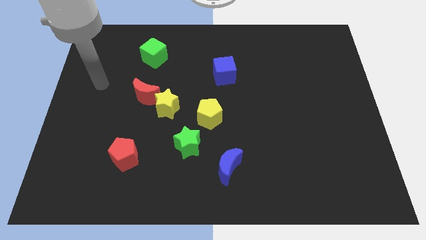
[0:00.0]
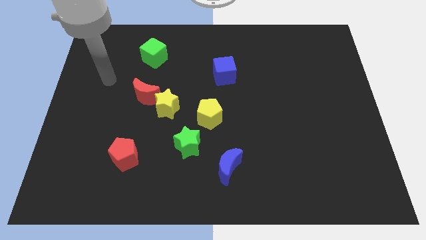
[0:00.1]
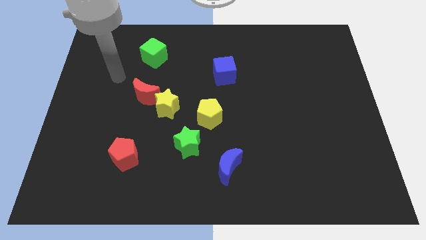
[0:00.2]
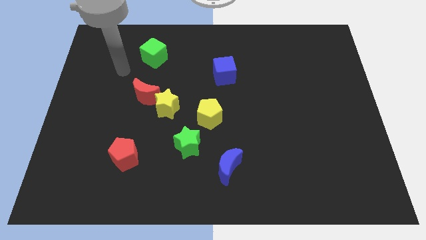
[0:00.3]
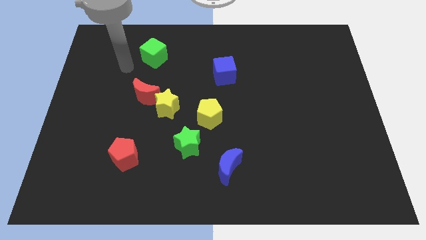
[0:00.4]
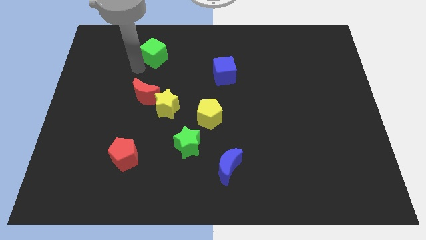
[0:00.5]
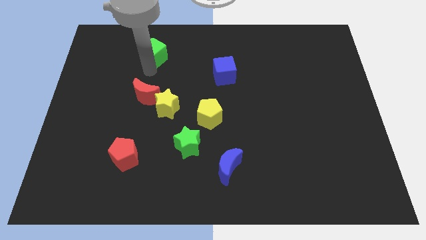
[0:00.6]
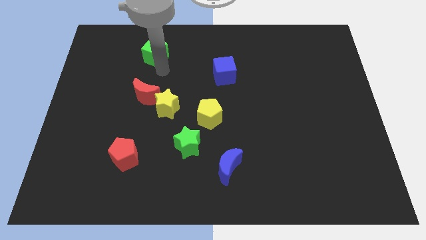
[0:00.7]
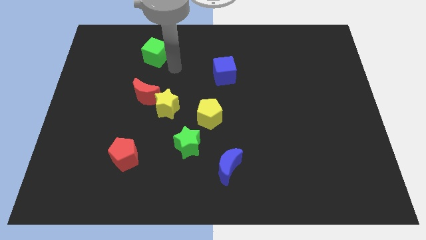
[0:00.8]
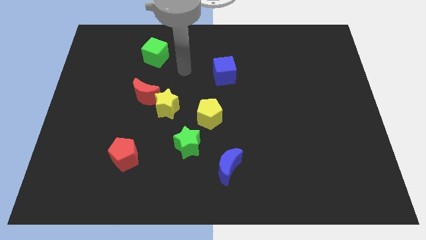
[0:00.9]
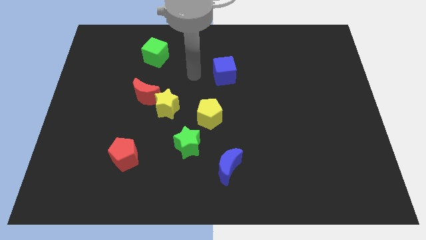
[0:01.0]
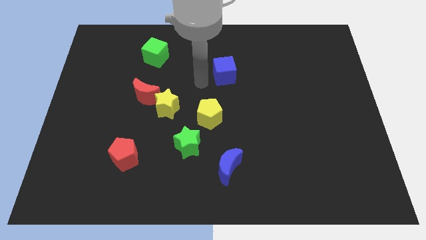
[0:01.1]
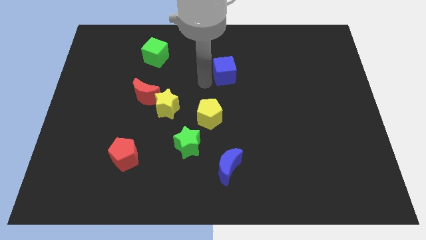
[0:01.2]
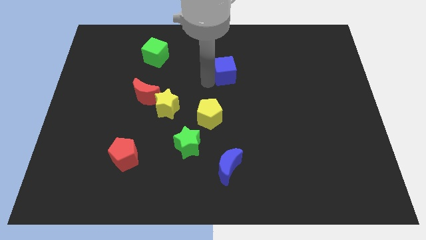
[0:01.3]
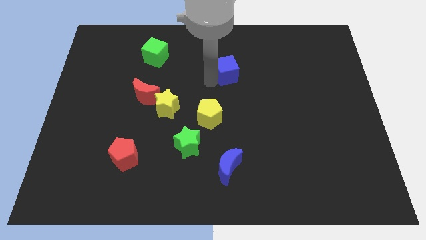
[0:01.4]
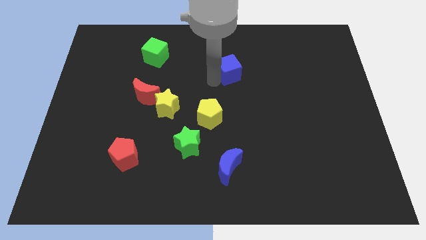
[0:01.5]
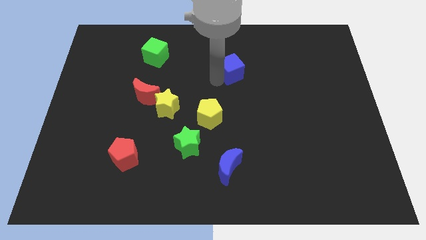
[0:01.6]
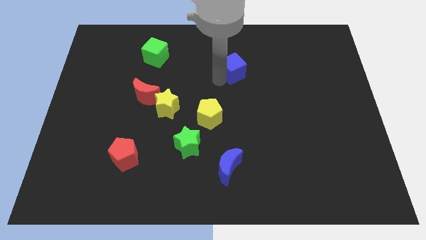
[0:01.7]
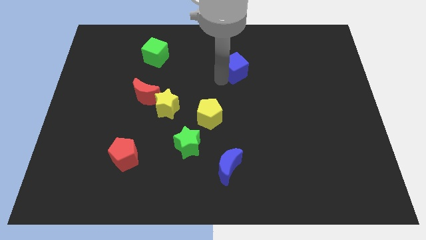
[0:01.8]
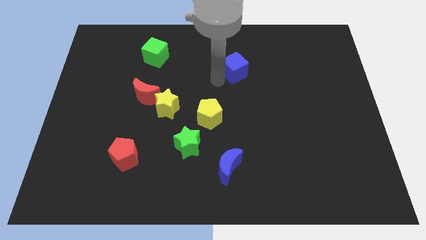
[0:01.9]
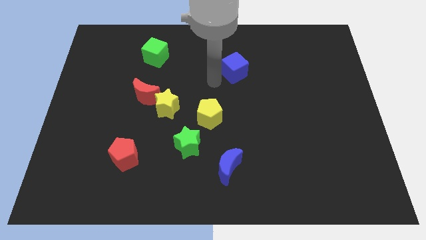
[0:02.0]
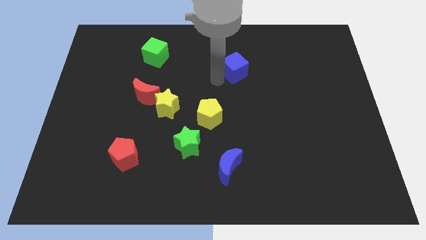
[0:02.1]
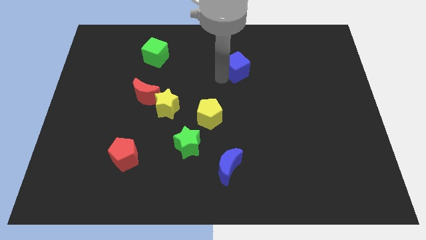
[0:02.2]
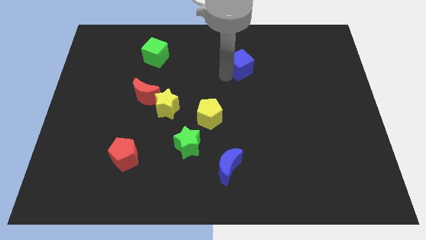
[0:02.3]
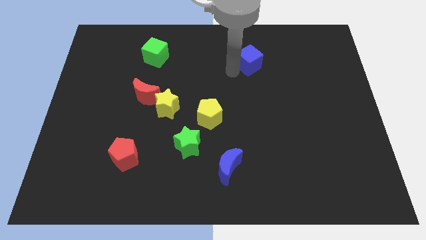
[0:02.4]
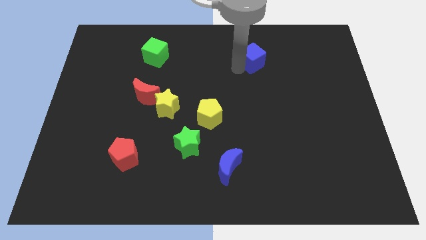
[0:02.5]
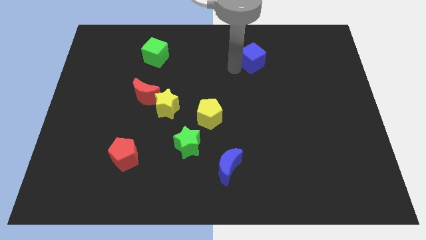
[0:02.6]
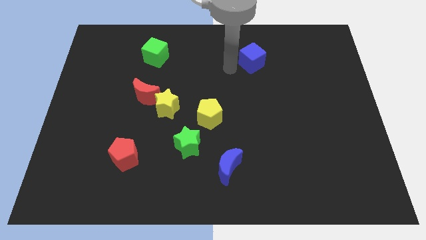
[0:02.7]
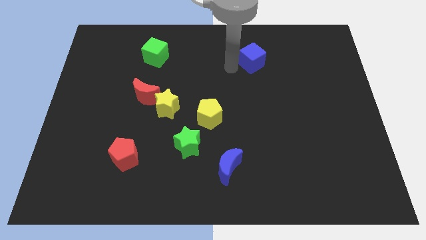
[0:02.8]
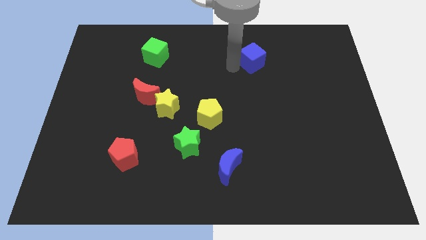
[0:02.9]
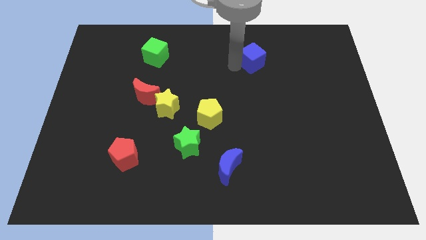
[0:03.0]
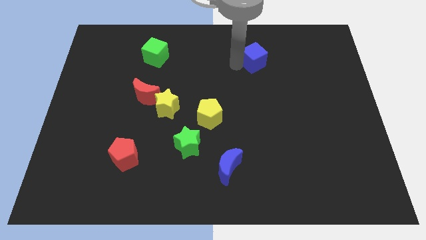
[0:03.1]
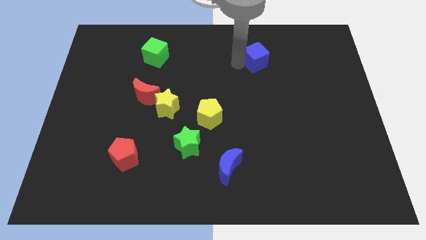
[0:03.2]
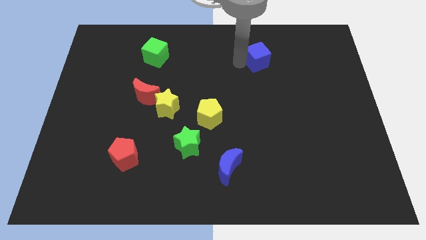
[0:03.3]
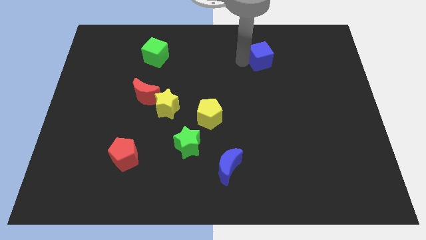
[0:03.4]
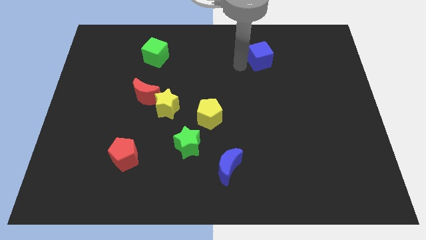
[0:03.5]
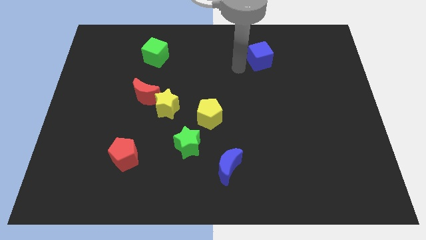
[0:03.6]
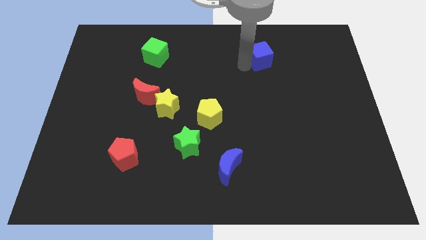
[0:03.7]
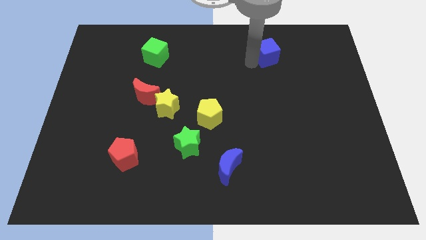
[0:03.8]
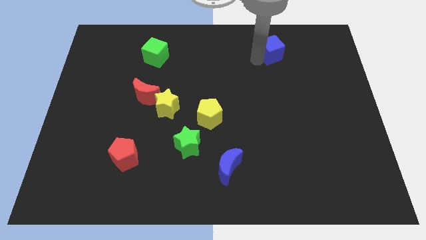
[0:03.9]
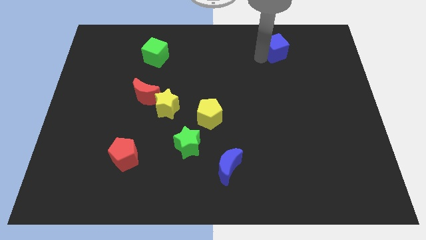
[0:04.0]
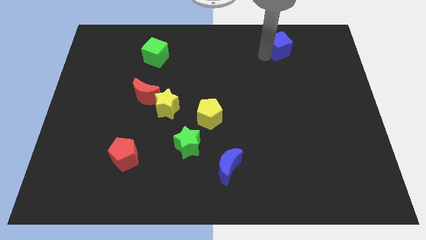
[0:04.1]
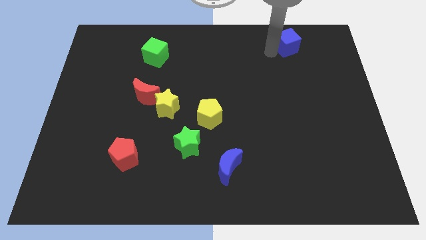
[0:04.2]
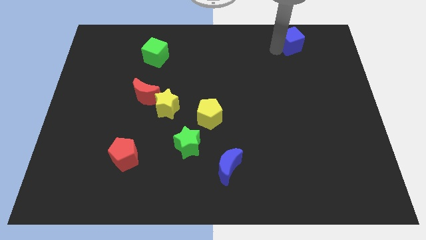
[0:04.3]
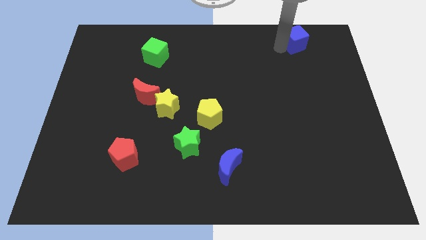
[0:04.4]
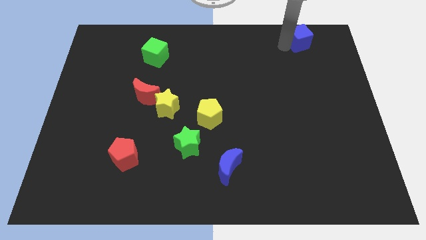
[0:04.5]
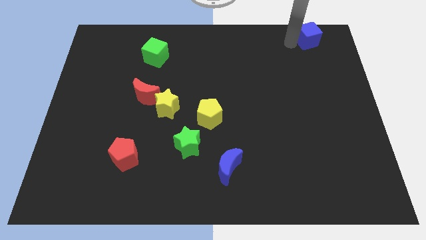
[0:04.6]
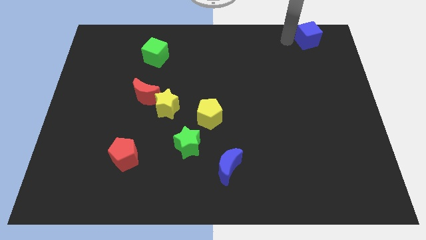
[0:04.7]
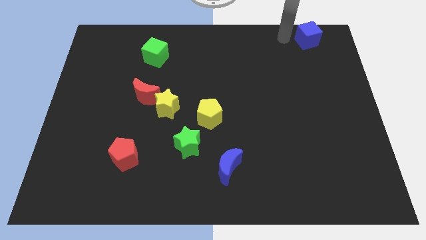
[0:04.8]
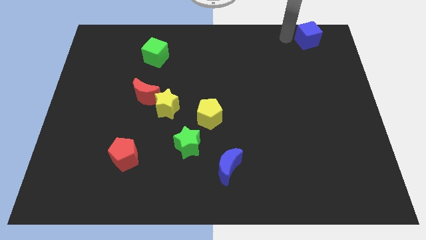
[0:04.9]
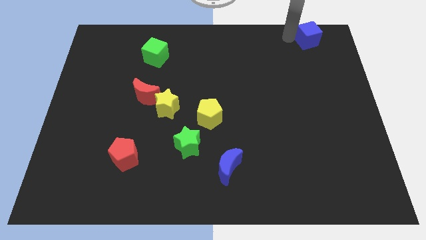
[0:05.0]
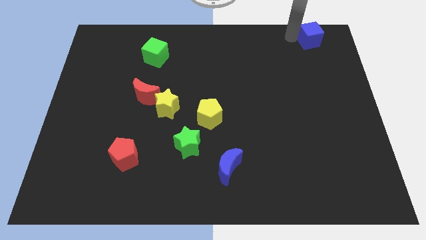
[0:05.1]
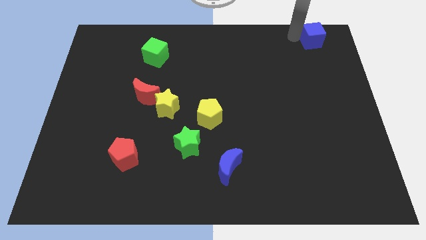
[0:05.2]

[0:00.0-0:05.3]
put the blue cube to the top right of the board

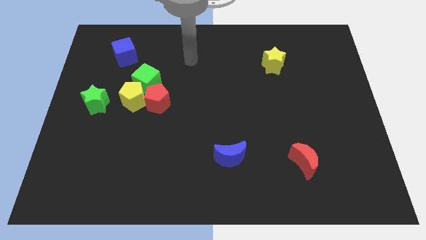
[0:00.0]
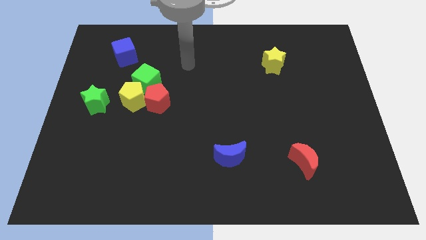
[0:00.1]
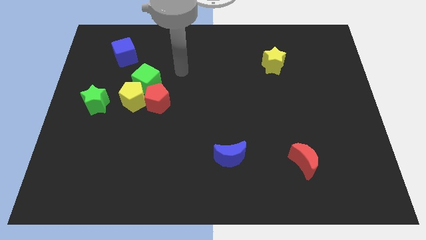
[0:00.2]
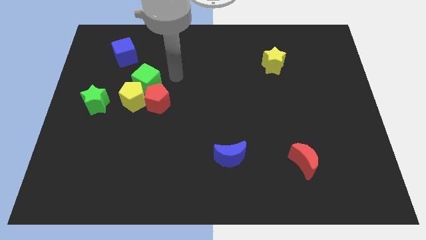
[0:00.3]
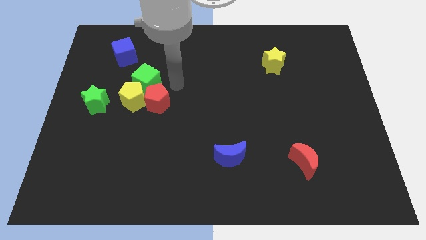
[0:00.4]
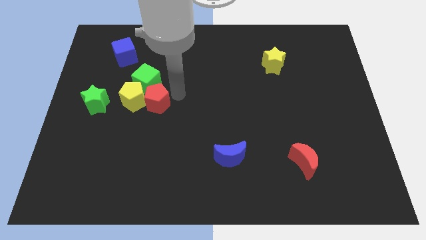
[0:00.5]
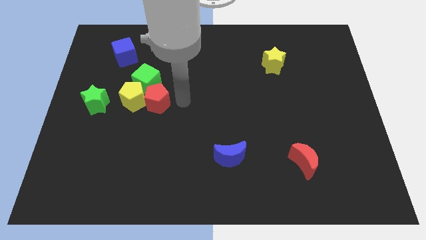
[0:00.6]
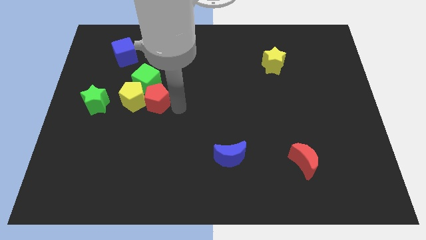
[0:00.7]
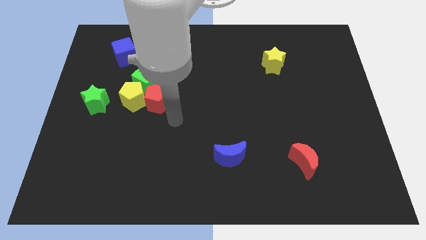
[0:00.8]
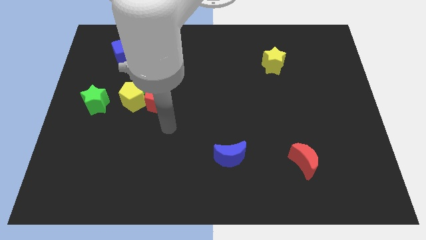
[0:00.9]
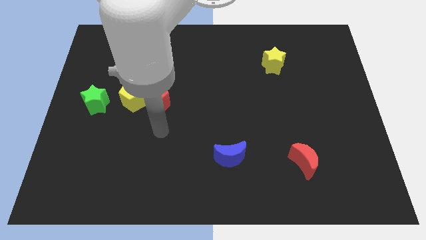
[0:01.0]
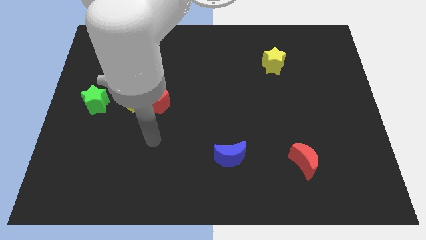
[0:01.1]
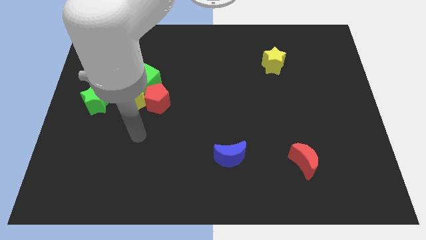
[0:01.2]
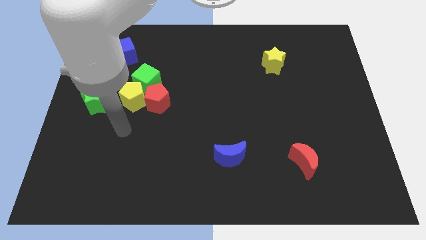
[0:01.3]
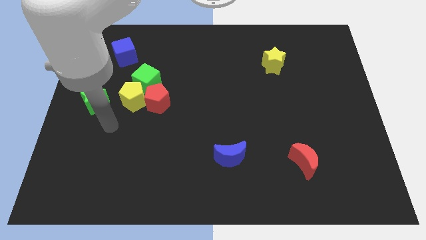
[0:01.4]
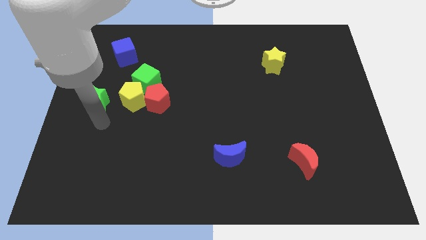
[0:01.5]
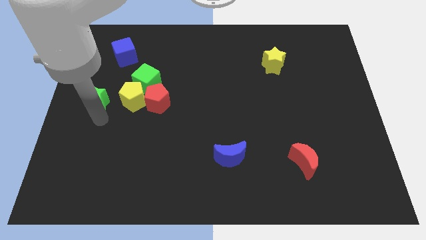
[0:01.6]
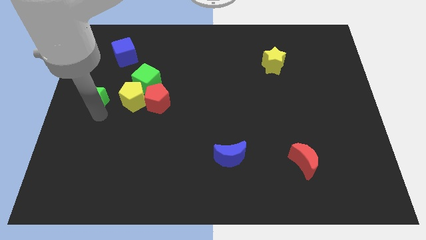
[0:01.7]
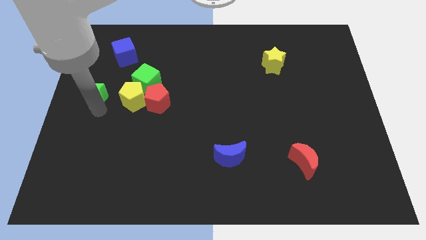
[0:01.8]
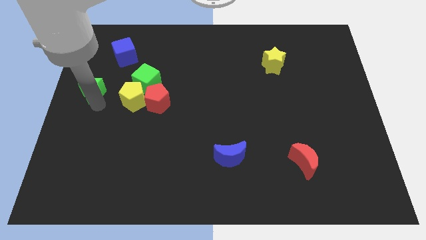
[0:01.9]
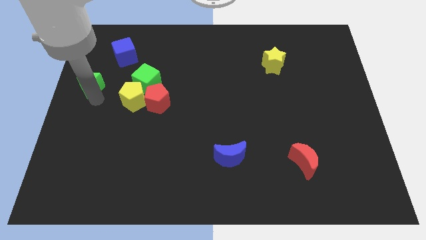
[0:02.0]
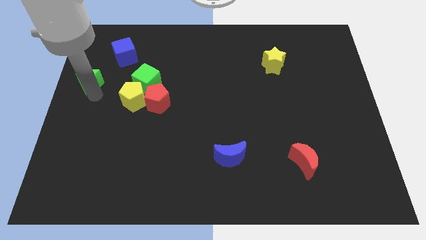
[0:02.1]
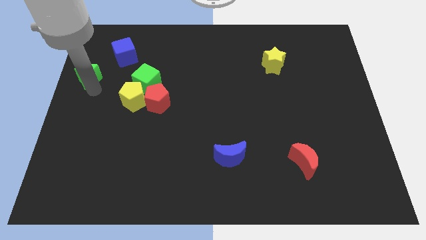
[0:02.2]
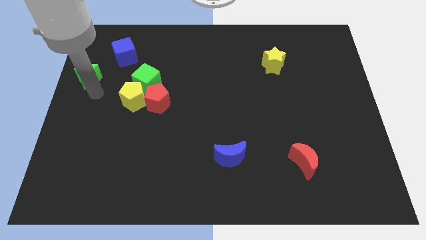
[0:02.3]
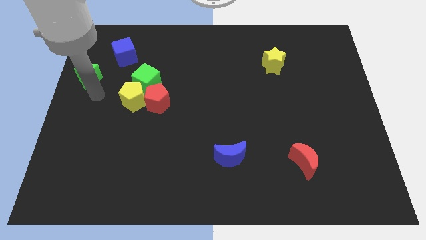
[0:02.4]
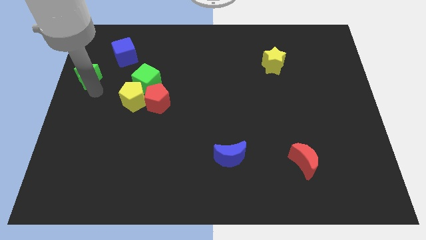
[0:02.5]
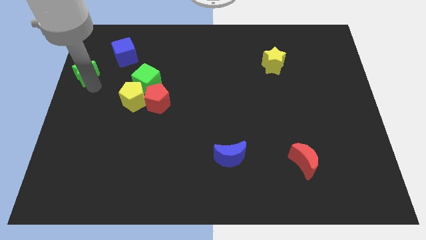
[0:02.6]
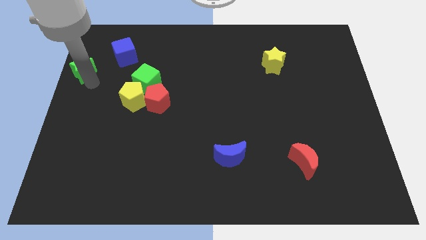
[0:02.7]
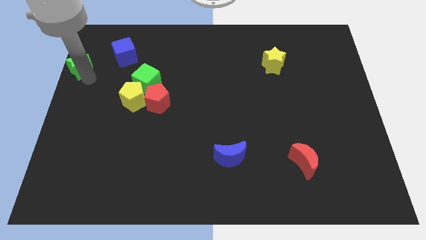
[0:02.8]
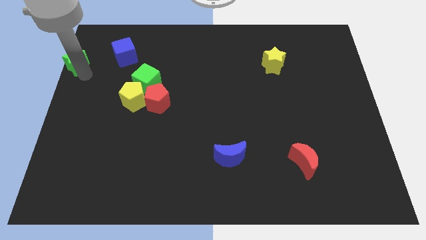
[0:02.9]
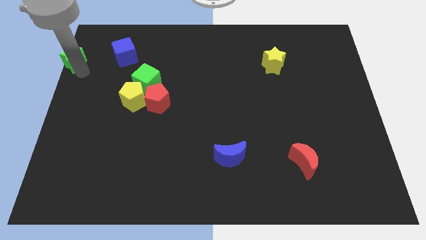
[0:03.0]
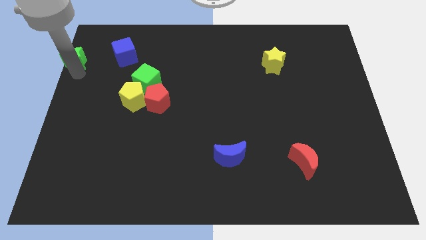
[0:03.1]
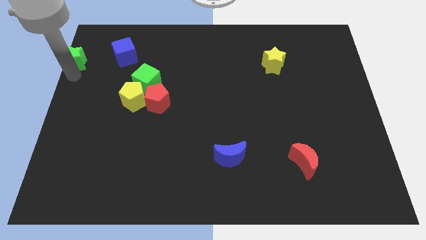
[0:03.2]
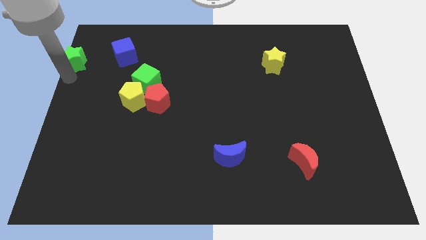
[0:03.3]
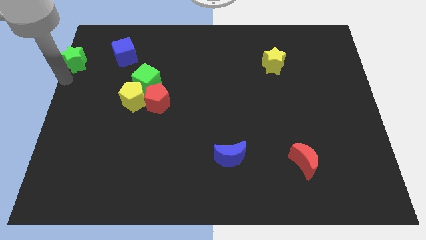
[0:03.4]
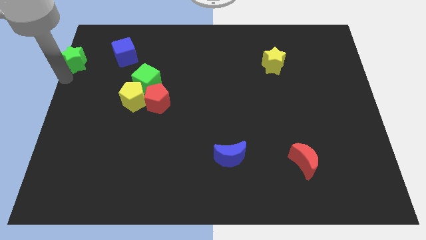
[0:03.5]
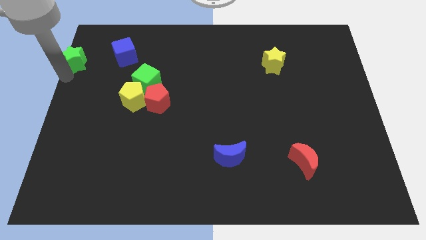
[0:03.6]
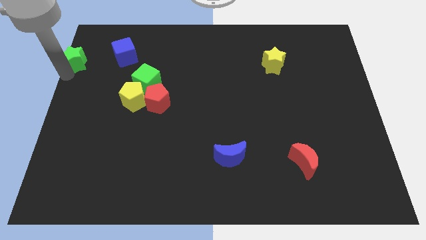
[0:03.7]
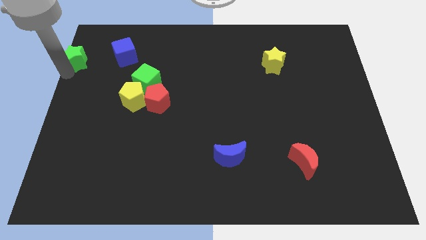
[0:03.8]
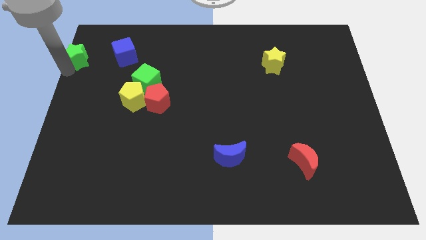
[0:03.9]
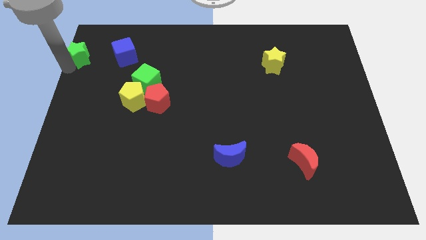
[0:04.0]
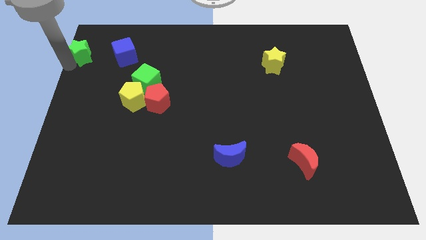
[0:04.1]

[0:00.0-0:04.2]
move the green star to the top left
